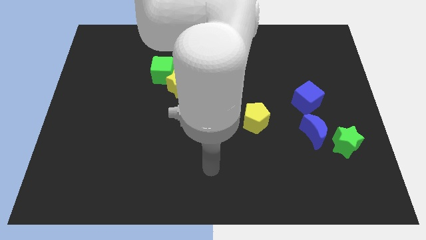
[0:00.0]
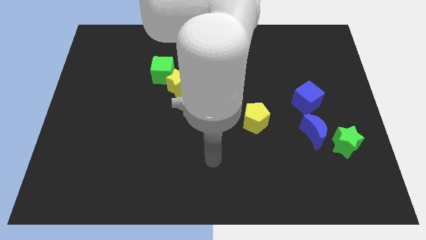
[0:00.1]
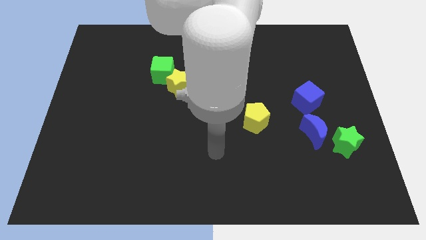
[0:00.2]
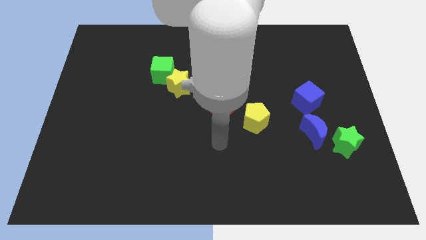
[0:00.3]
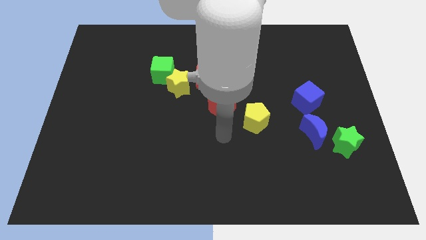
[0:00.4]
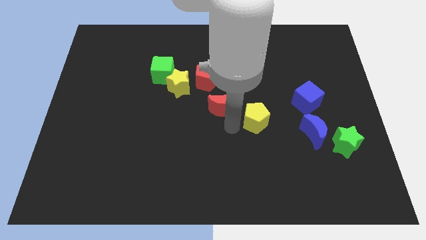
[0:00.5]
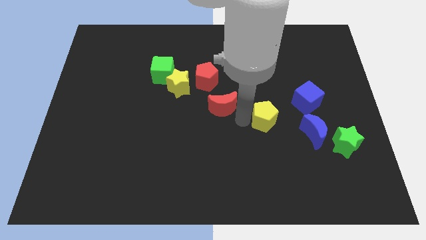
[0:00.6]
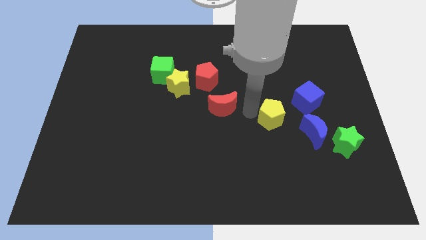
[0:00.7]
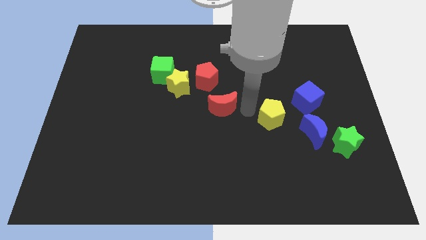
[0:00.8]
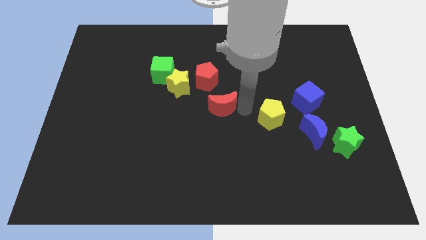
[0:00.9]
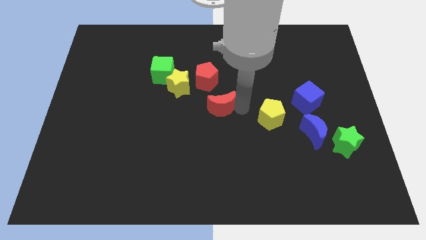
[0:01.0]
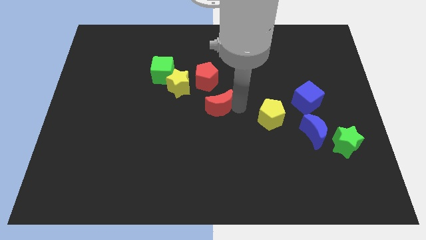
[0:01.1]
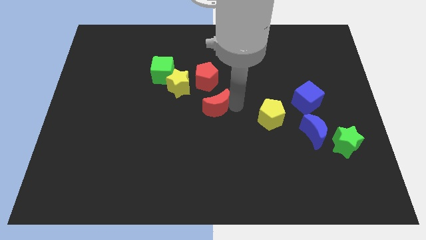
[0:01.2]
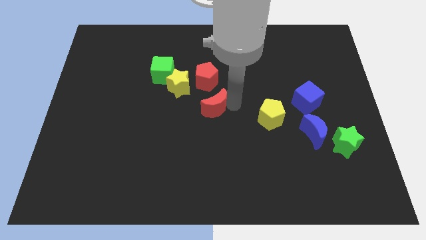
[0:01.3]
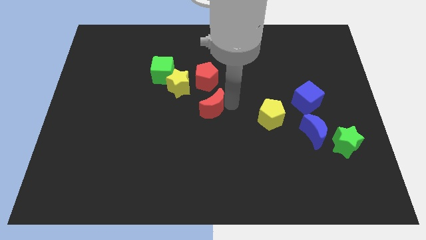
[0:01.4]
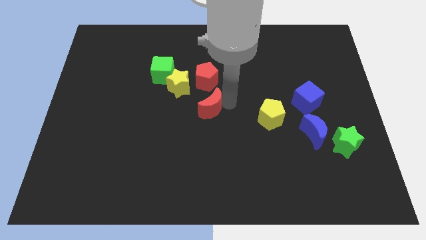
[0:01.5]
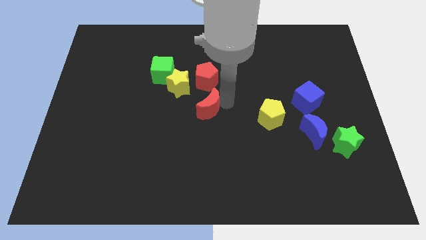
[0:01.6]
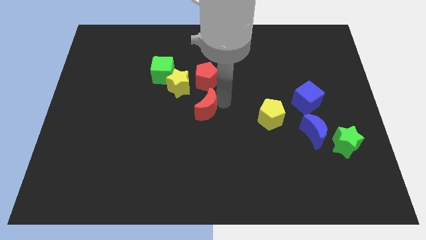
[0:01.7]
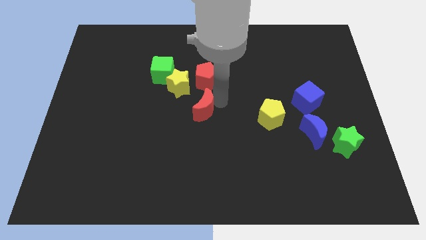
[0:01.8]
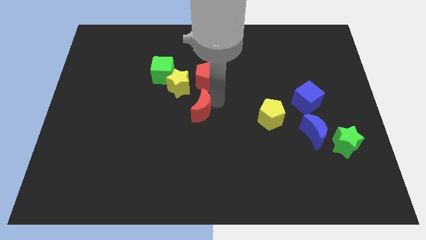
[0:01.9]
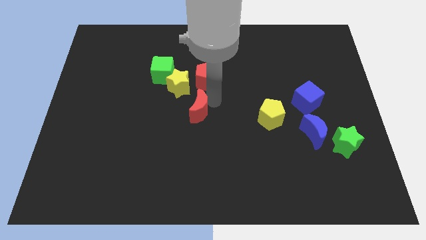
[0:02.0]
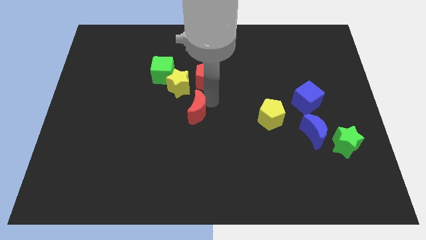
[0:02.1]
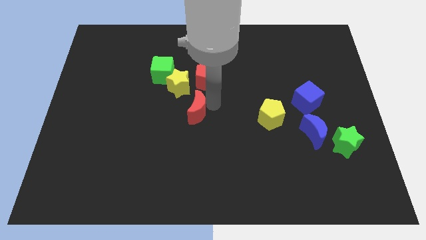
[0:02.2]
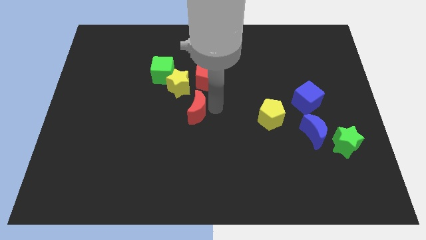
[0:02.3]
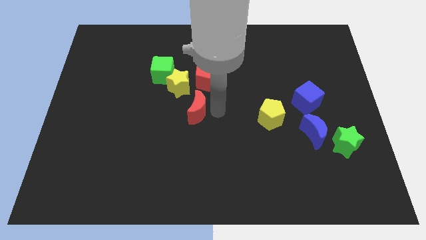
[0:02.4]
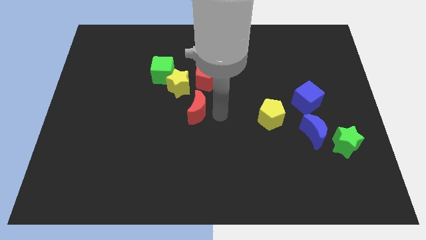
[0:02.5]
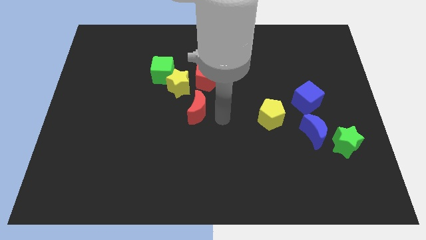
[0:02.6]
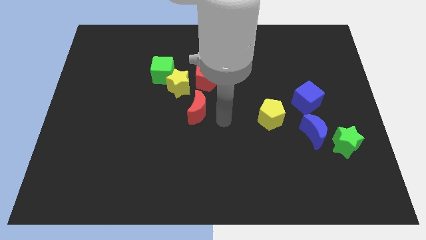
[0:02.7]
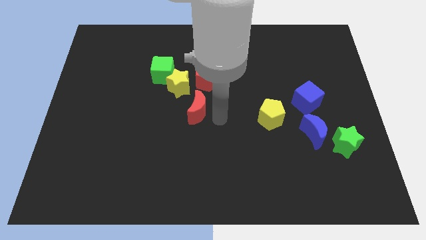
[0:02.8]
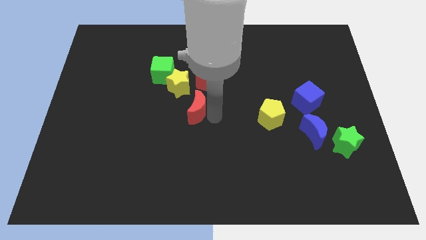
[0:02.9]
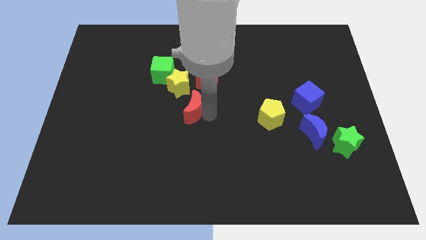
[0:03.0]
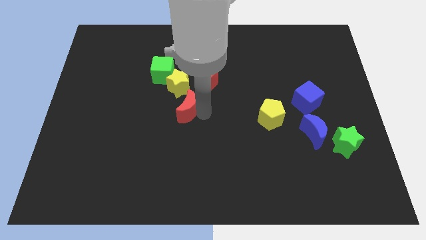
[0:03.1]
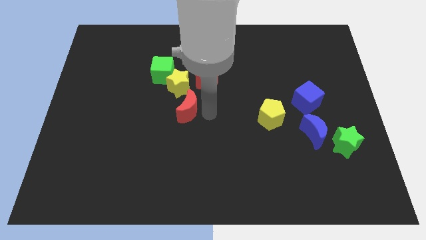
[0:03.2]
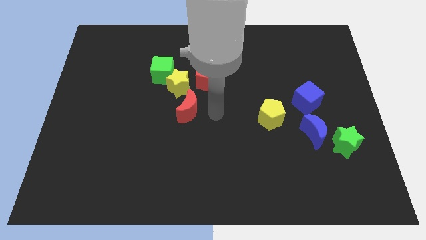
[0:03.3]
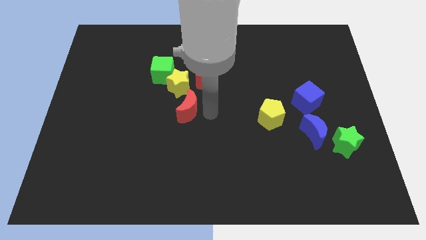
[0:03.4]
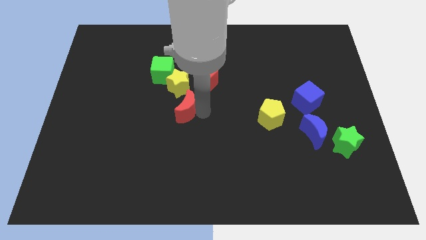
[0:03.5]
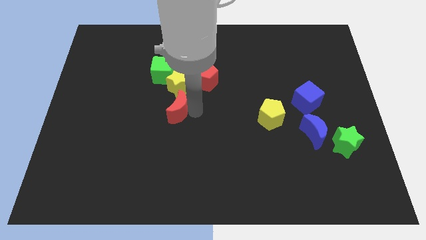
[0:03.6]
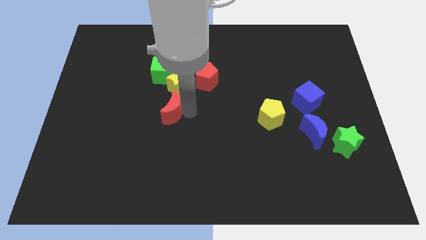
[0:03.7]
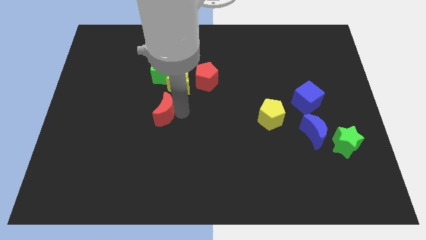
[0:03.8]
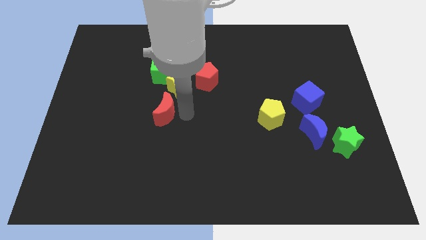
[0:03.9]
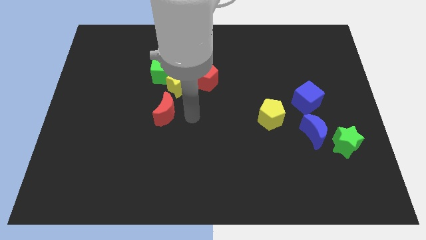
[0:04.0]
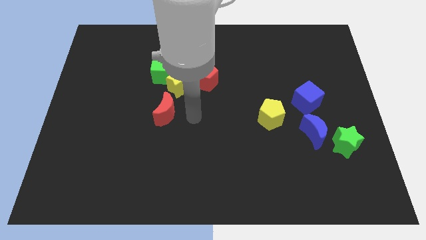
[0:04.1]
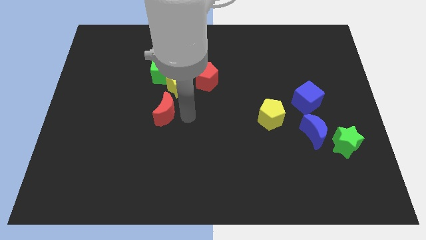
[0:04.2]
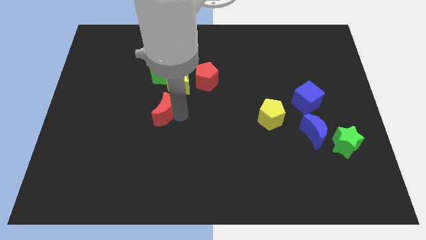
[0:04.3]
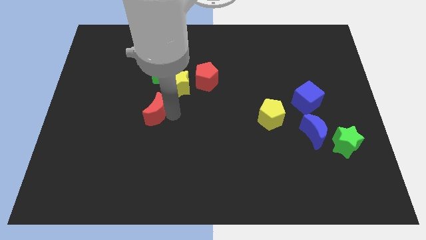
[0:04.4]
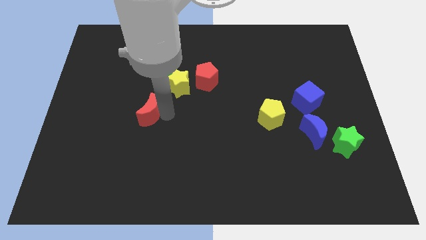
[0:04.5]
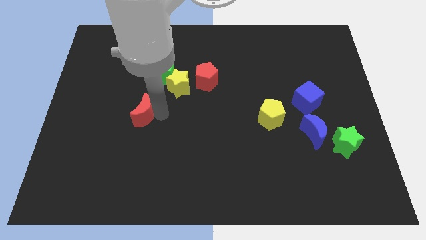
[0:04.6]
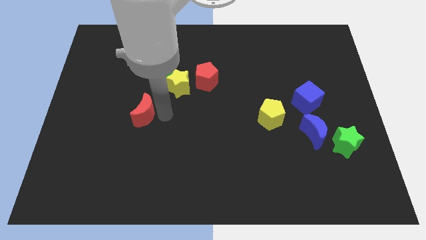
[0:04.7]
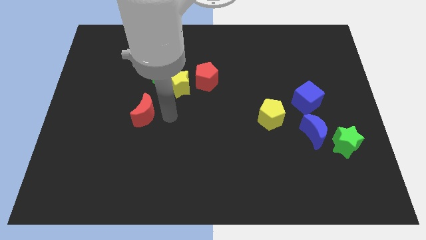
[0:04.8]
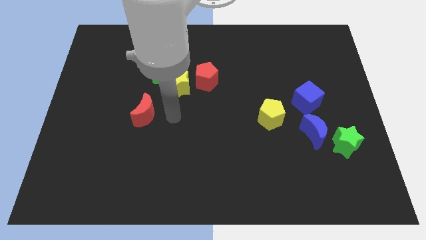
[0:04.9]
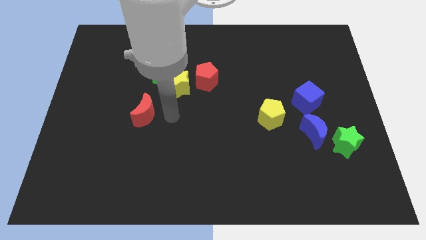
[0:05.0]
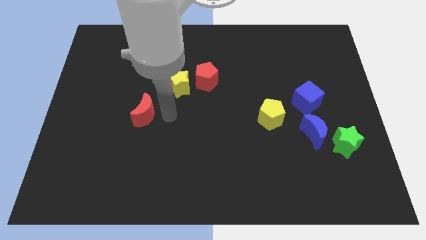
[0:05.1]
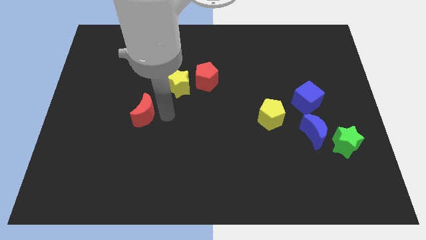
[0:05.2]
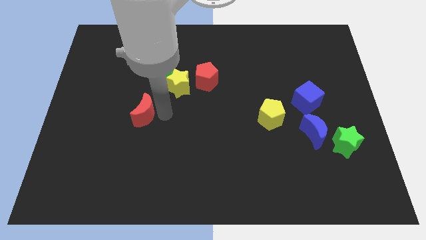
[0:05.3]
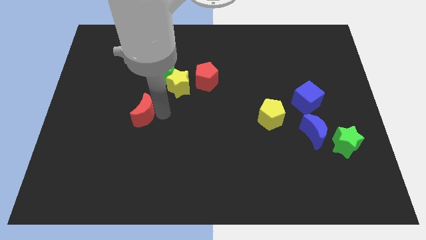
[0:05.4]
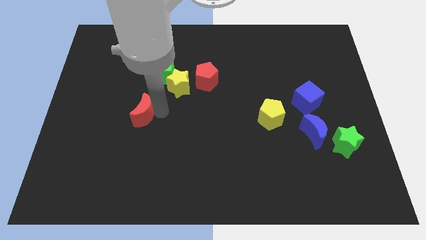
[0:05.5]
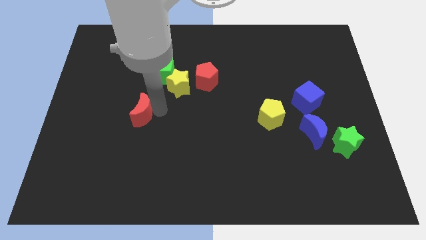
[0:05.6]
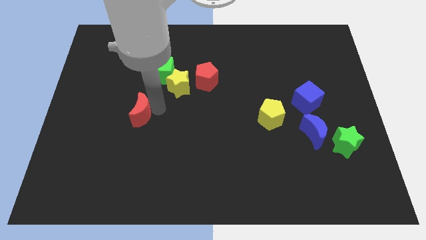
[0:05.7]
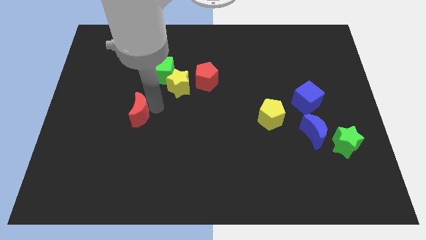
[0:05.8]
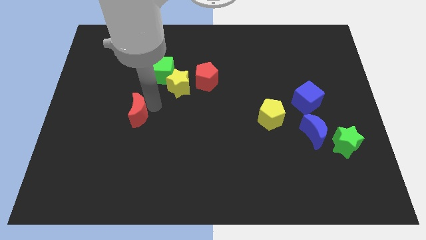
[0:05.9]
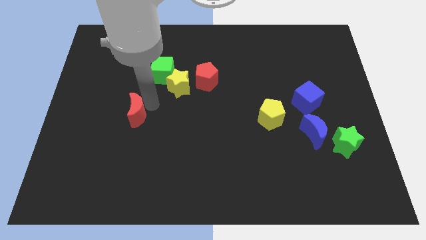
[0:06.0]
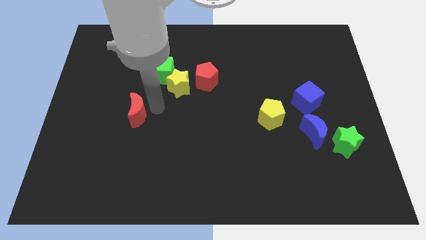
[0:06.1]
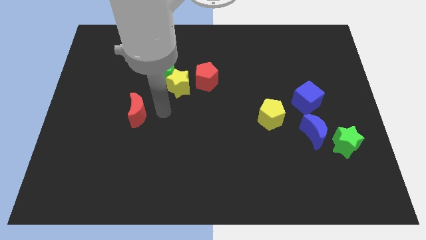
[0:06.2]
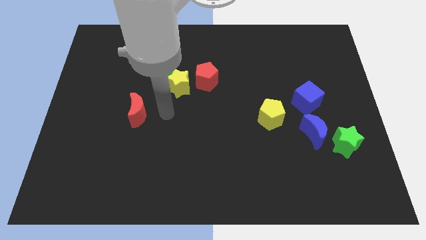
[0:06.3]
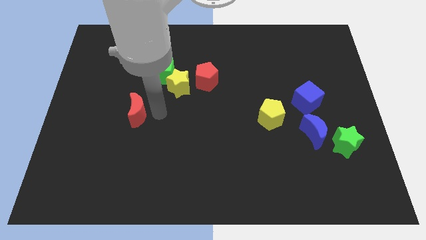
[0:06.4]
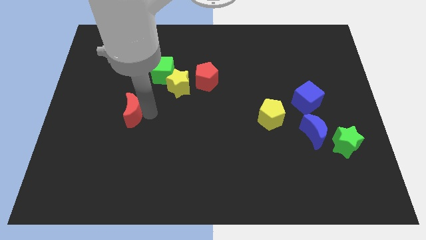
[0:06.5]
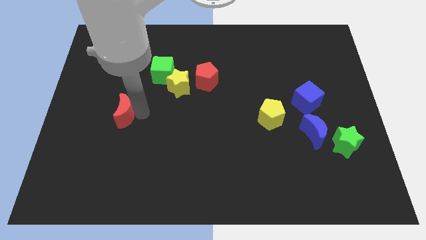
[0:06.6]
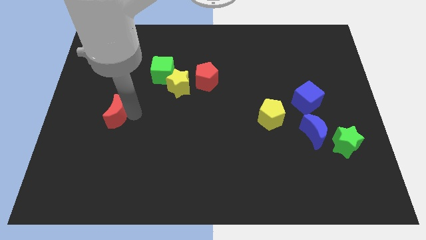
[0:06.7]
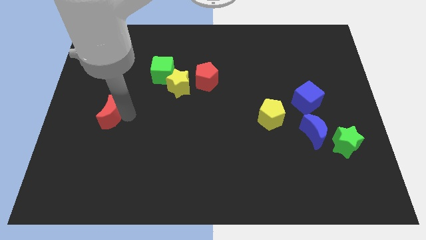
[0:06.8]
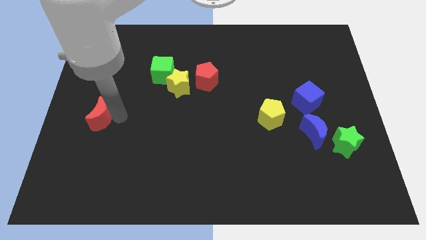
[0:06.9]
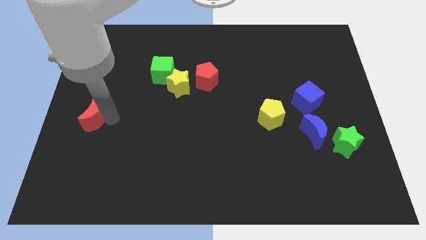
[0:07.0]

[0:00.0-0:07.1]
slide the red moon to the center left
